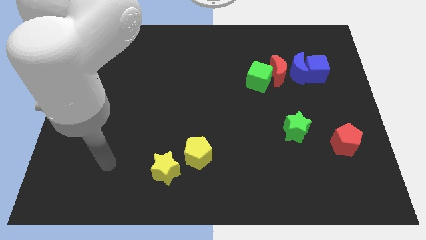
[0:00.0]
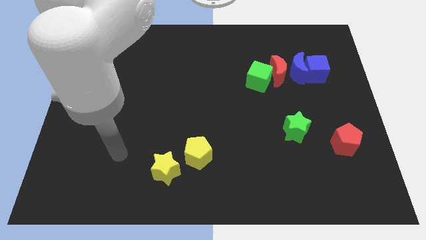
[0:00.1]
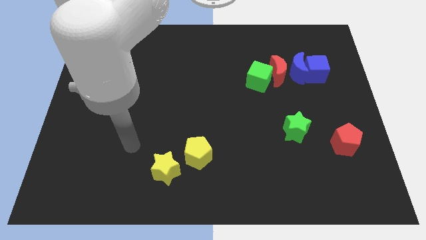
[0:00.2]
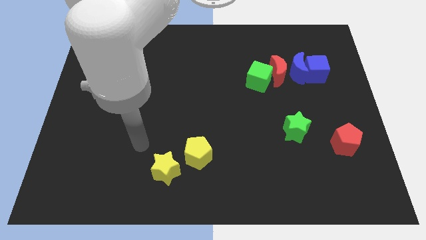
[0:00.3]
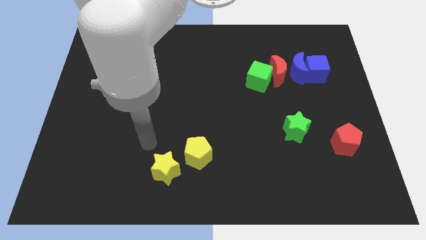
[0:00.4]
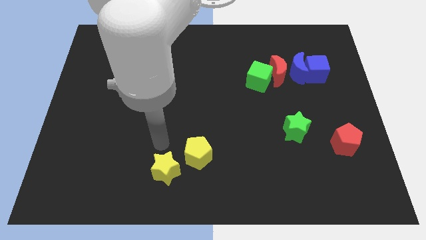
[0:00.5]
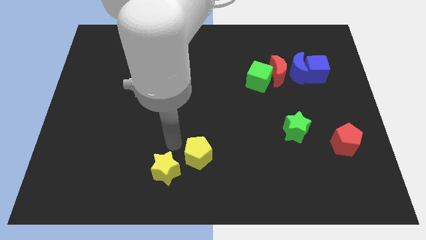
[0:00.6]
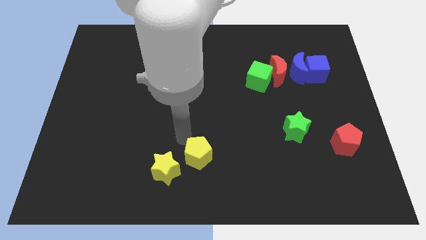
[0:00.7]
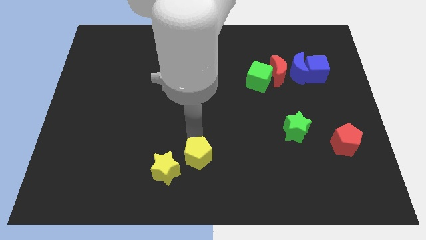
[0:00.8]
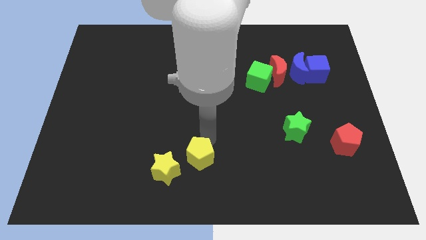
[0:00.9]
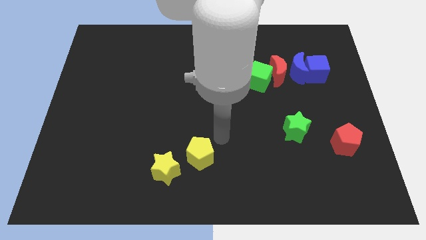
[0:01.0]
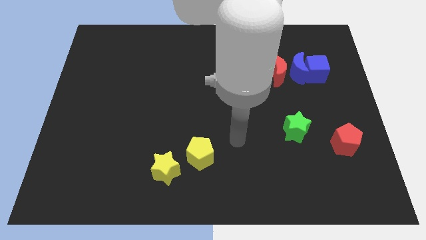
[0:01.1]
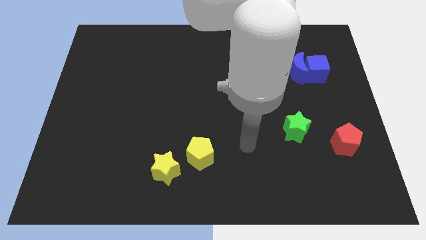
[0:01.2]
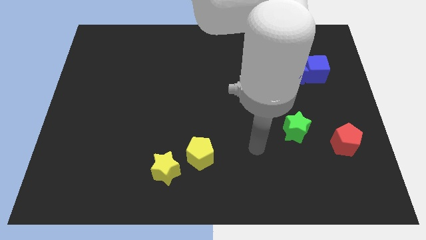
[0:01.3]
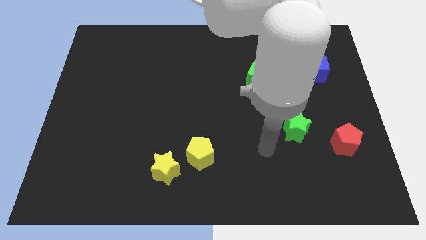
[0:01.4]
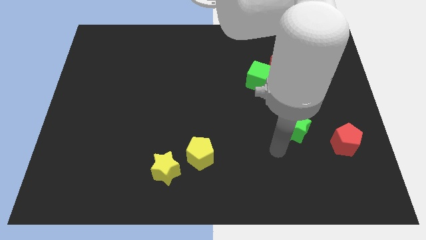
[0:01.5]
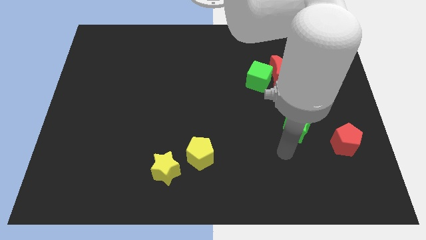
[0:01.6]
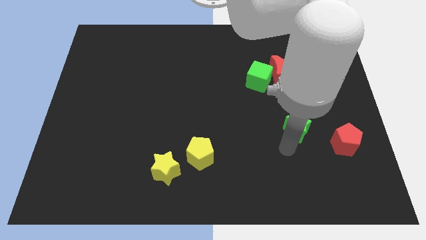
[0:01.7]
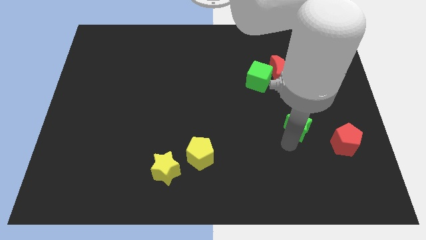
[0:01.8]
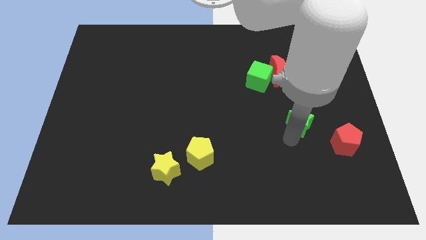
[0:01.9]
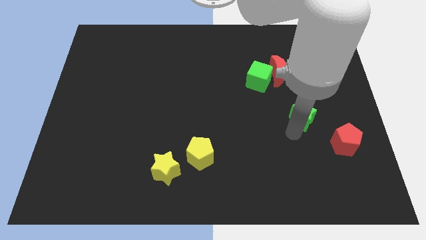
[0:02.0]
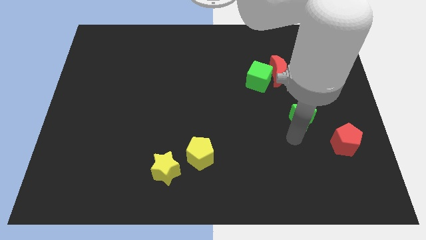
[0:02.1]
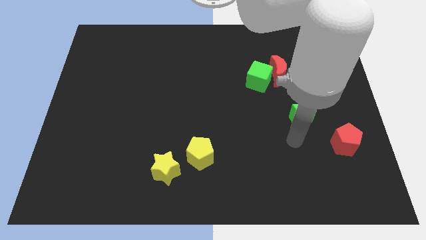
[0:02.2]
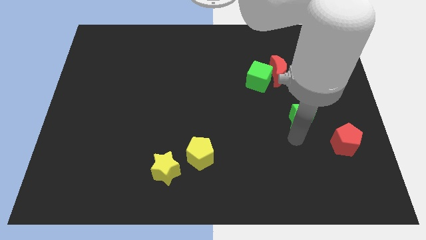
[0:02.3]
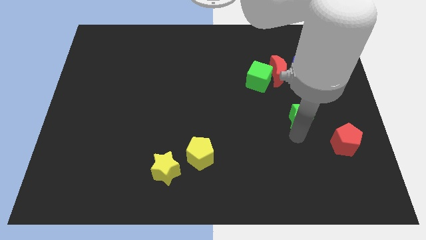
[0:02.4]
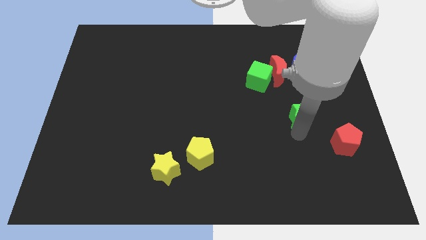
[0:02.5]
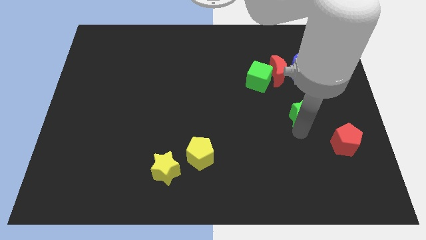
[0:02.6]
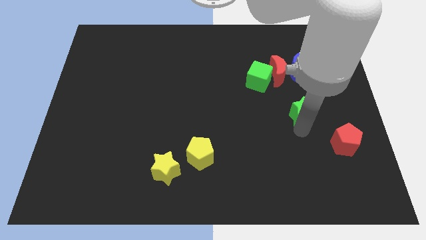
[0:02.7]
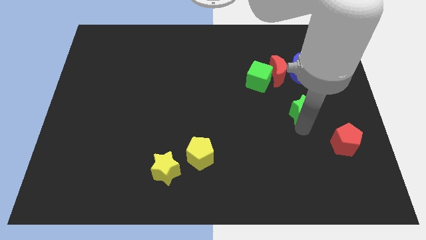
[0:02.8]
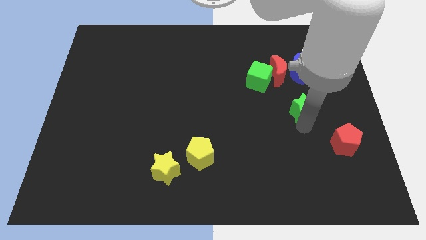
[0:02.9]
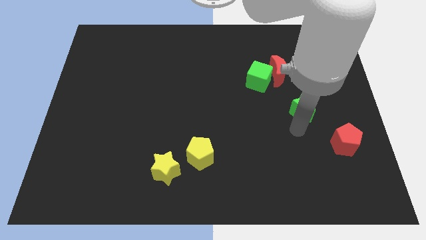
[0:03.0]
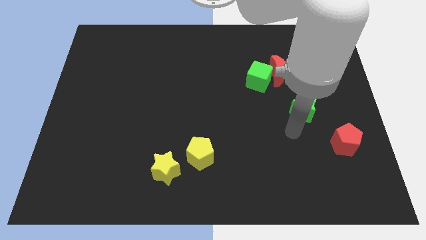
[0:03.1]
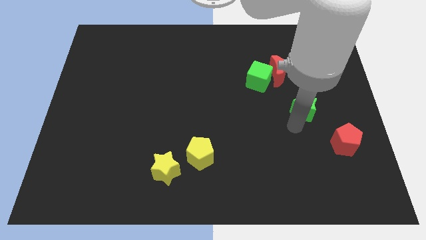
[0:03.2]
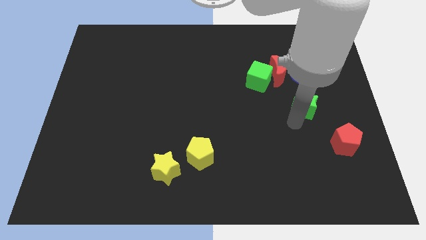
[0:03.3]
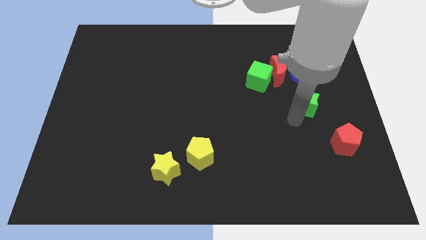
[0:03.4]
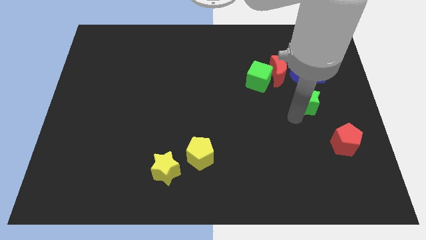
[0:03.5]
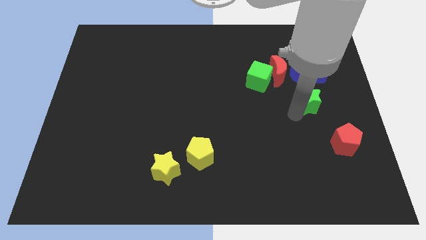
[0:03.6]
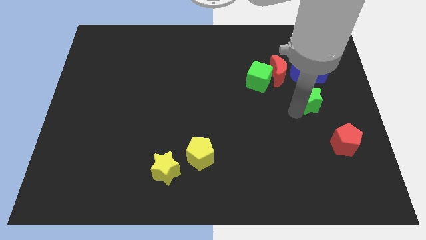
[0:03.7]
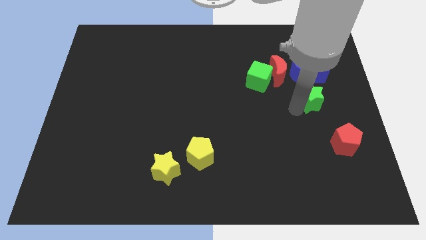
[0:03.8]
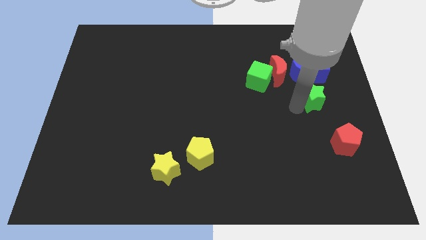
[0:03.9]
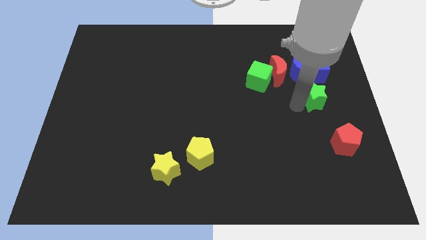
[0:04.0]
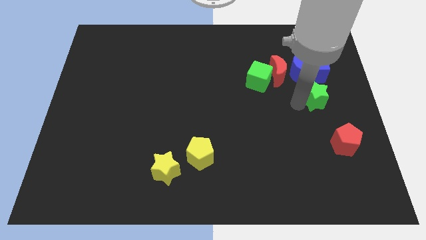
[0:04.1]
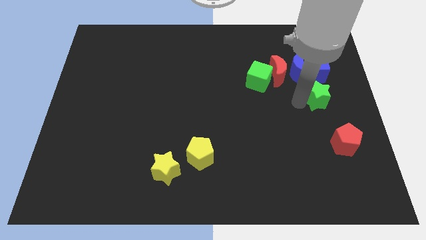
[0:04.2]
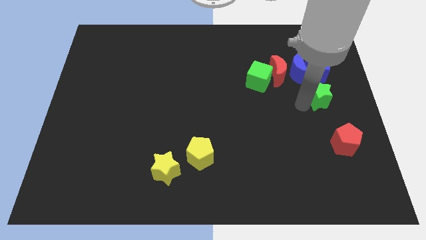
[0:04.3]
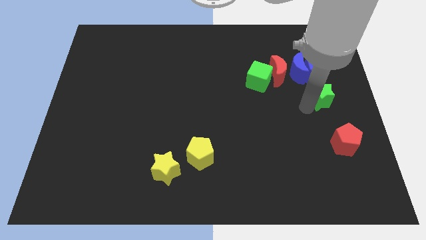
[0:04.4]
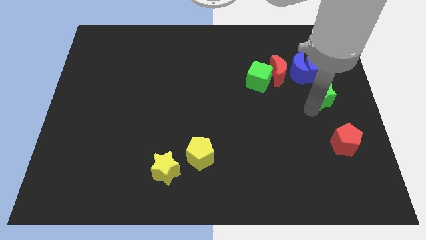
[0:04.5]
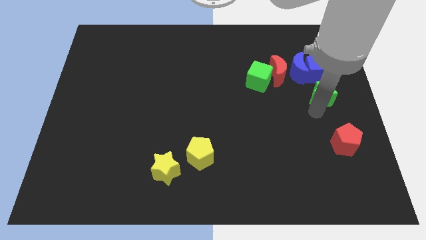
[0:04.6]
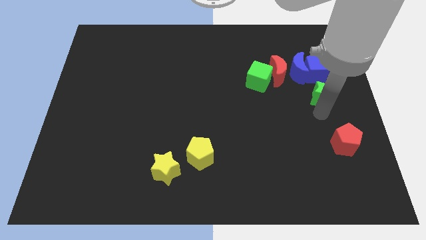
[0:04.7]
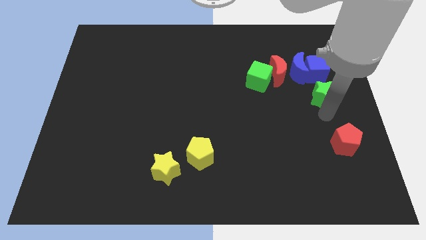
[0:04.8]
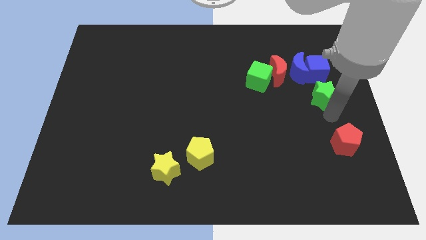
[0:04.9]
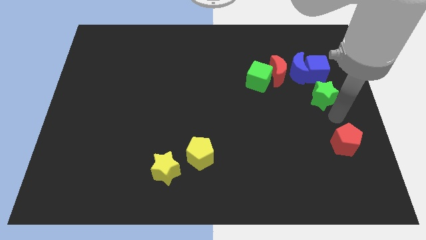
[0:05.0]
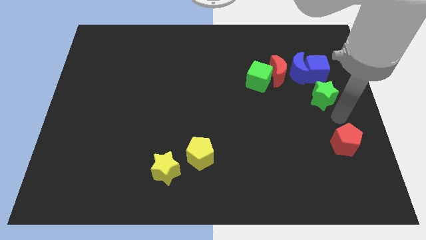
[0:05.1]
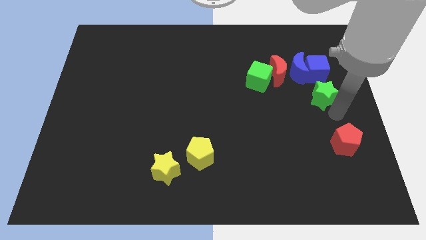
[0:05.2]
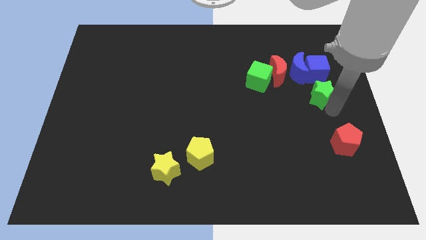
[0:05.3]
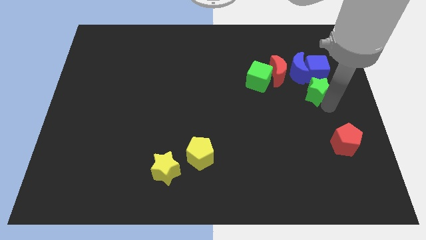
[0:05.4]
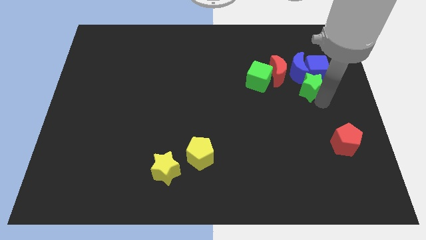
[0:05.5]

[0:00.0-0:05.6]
push the green star to the blue cube

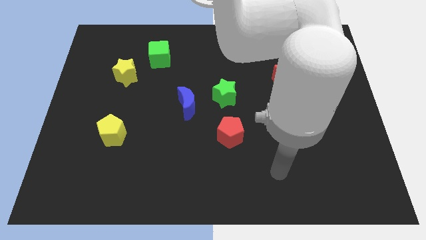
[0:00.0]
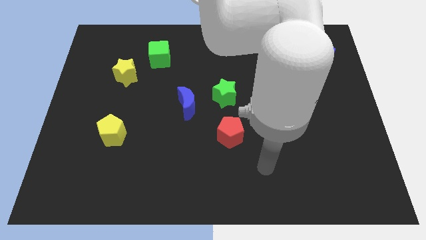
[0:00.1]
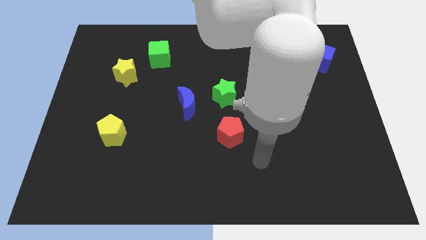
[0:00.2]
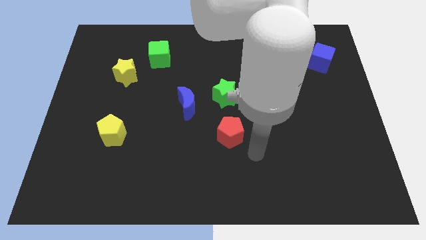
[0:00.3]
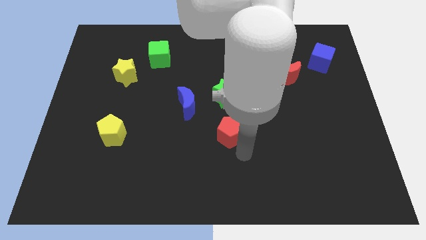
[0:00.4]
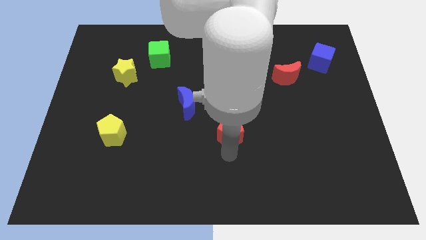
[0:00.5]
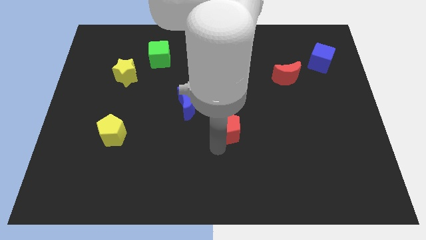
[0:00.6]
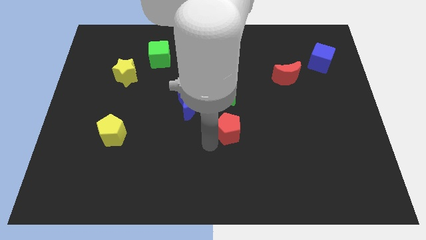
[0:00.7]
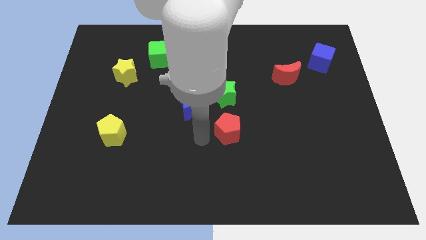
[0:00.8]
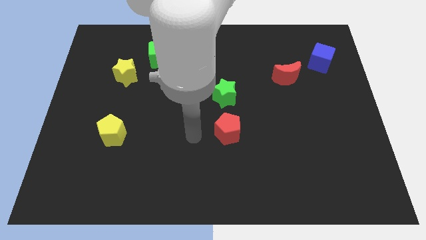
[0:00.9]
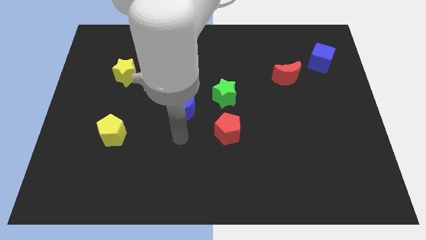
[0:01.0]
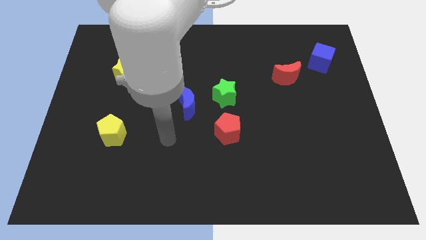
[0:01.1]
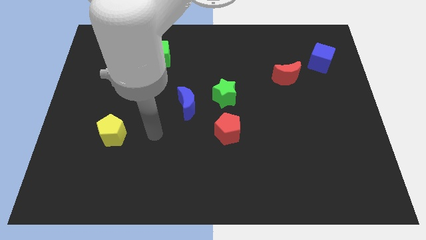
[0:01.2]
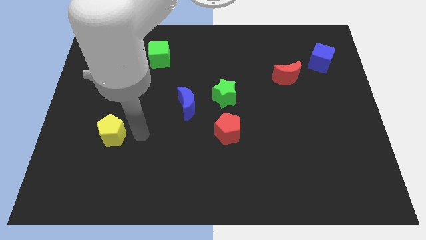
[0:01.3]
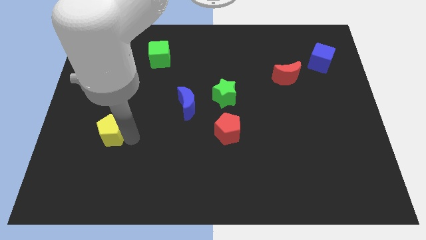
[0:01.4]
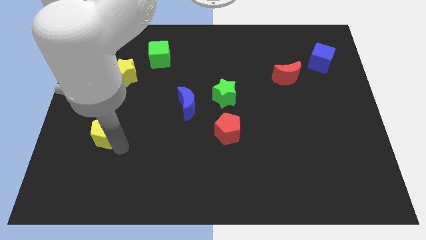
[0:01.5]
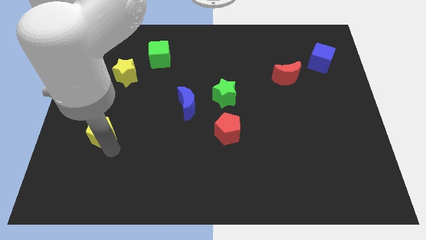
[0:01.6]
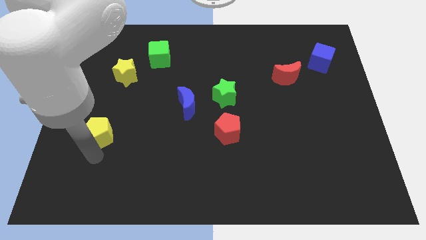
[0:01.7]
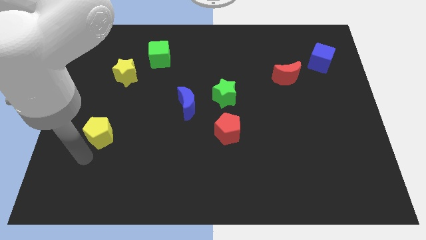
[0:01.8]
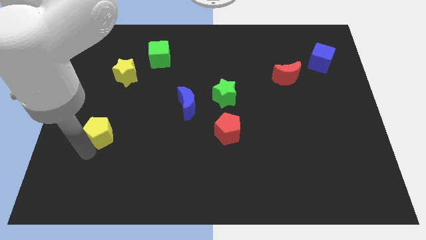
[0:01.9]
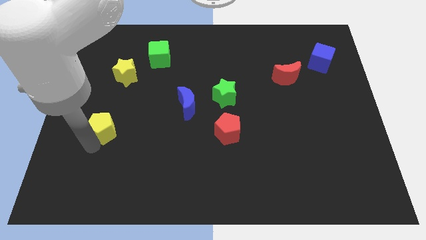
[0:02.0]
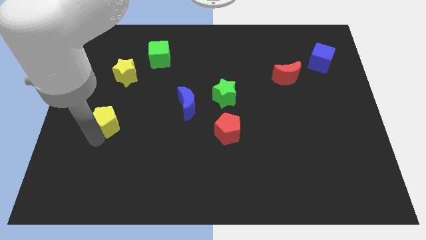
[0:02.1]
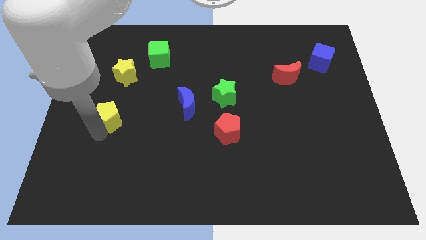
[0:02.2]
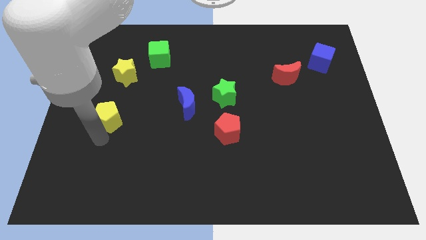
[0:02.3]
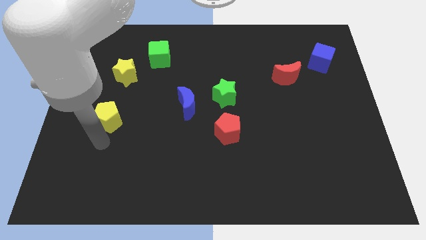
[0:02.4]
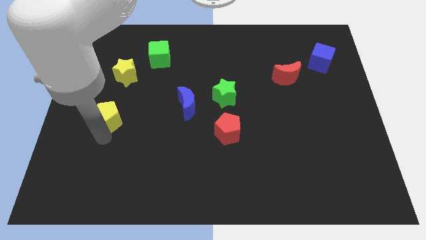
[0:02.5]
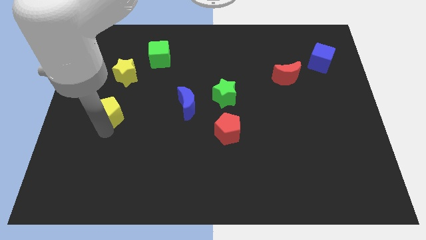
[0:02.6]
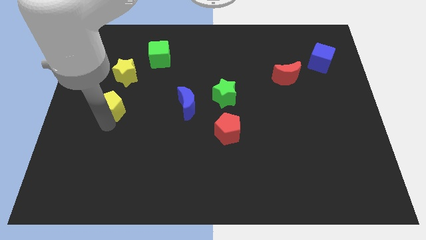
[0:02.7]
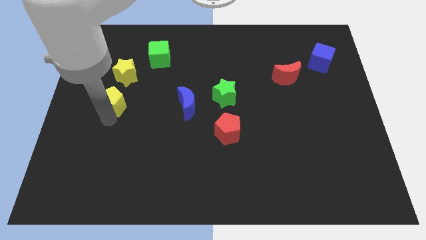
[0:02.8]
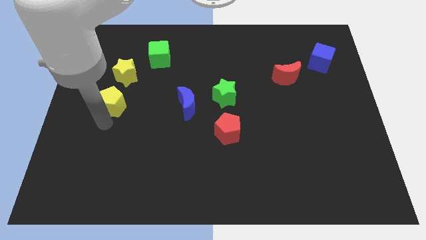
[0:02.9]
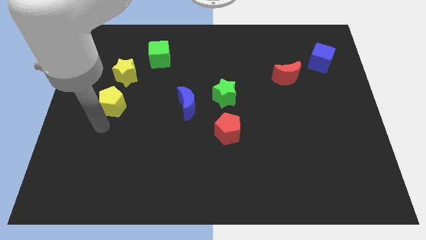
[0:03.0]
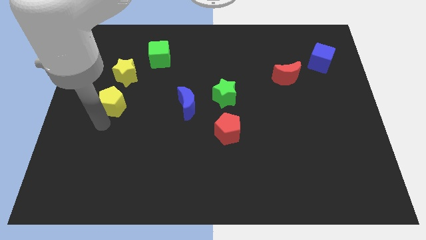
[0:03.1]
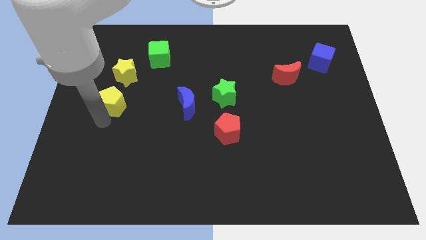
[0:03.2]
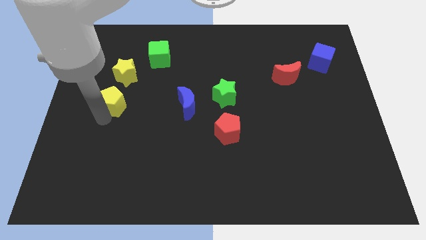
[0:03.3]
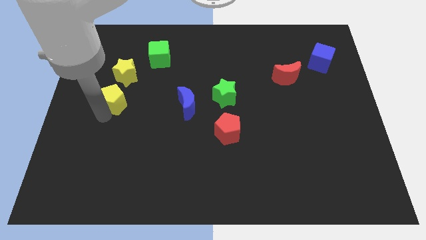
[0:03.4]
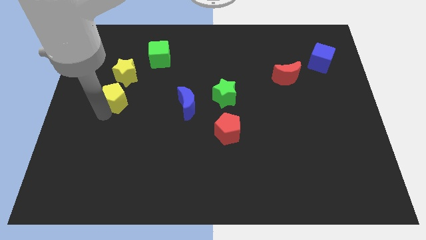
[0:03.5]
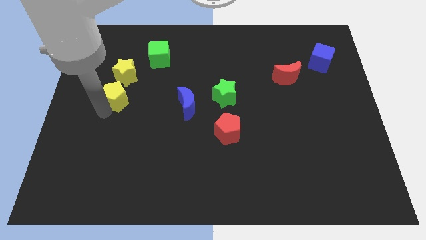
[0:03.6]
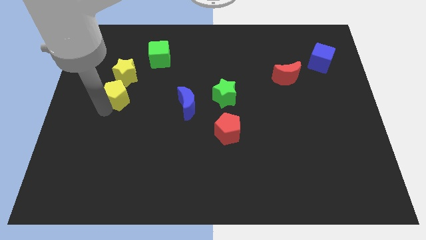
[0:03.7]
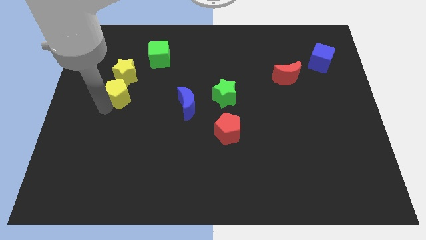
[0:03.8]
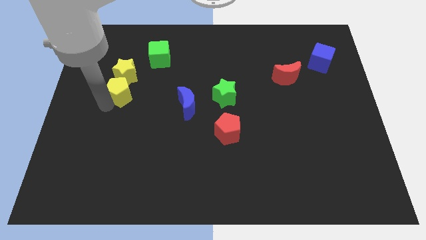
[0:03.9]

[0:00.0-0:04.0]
slide the yellow pentagon towards the yellow star
